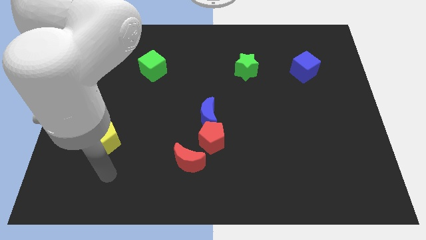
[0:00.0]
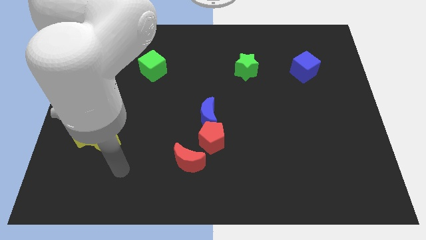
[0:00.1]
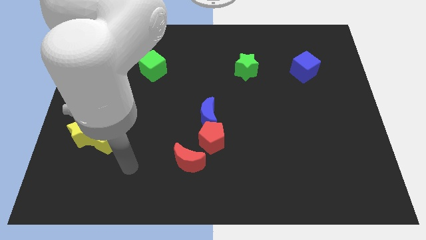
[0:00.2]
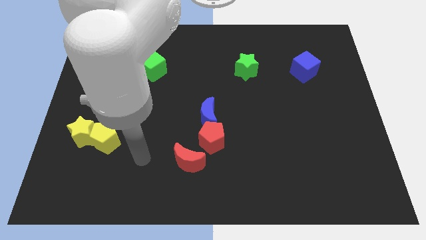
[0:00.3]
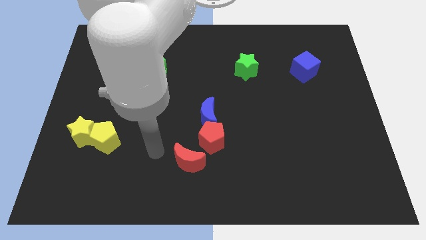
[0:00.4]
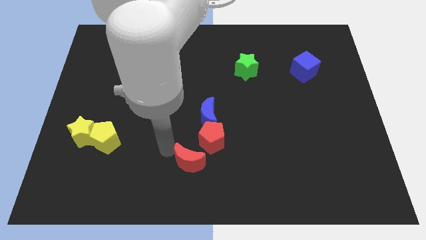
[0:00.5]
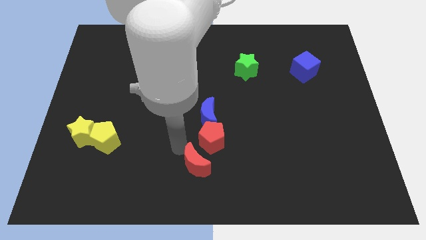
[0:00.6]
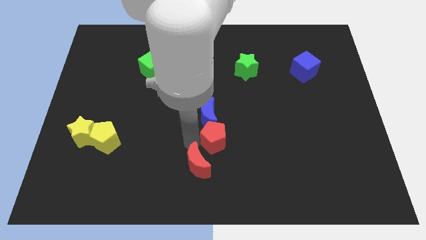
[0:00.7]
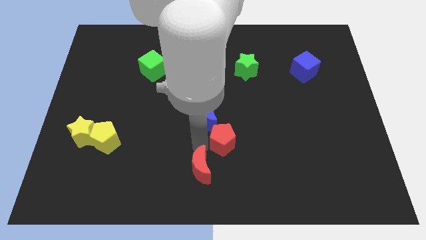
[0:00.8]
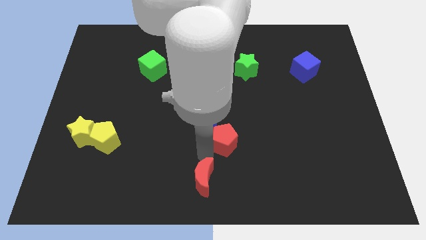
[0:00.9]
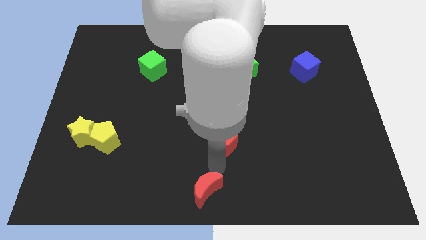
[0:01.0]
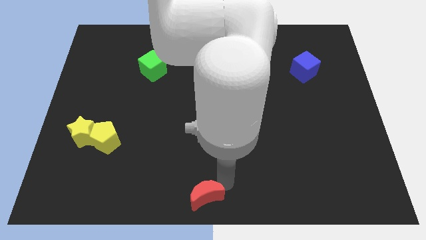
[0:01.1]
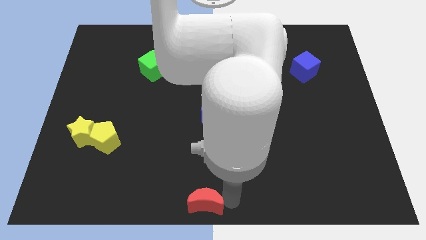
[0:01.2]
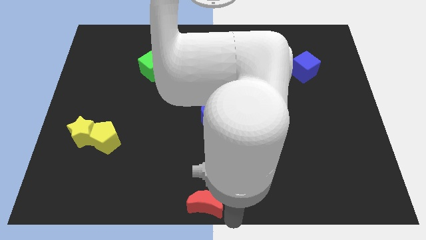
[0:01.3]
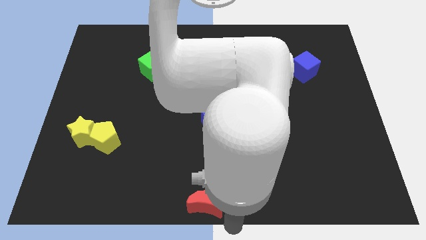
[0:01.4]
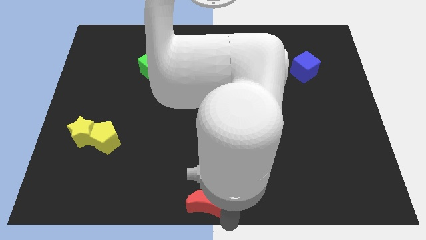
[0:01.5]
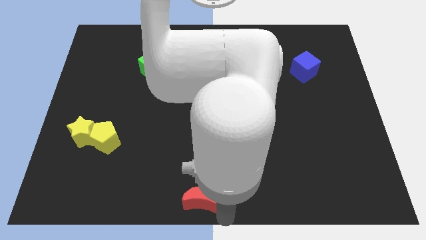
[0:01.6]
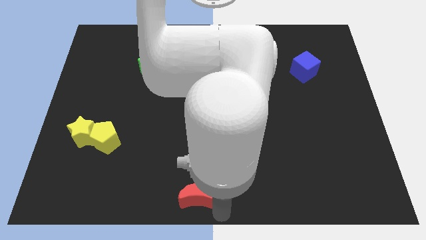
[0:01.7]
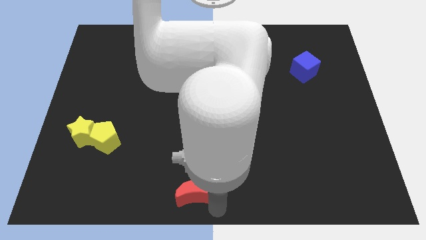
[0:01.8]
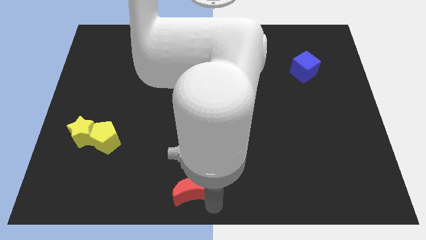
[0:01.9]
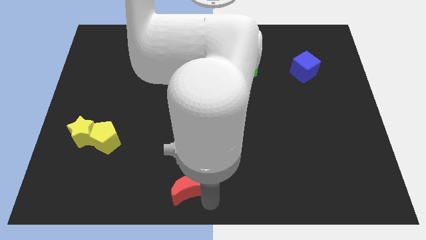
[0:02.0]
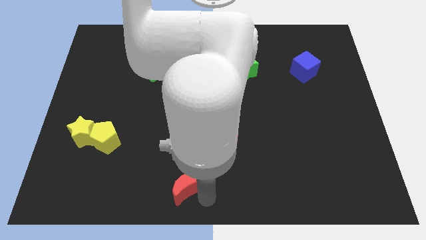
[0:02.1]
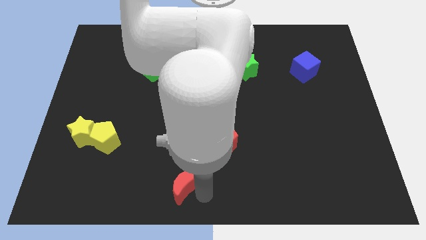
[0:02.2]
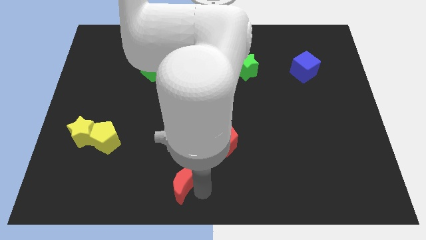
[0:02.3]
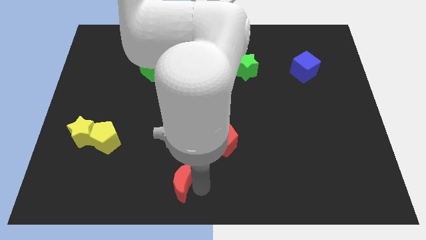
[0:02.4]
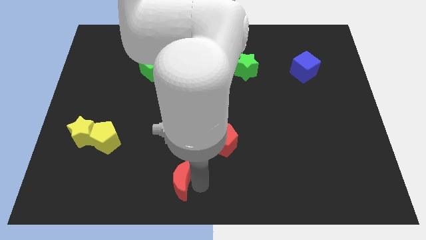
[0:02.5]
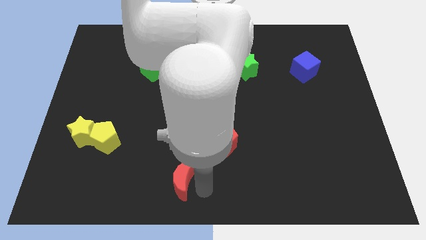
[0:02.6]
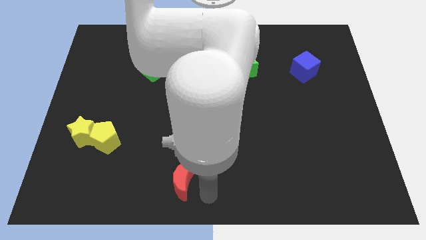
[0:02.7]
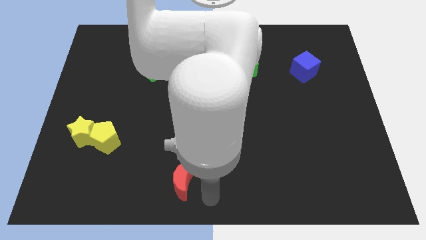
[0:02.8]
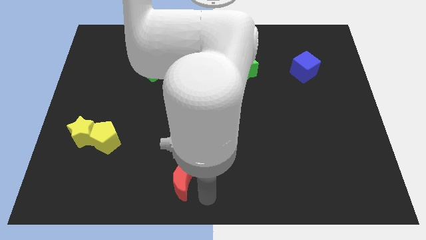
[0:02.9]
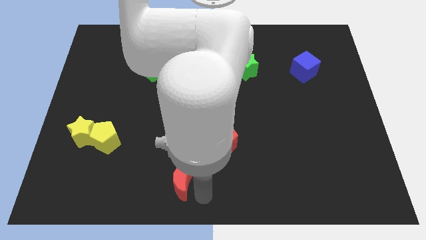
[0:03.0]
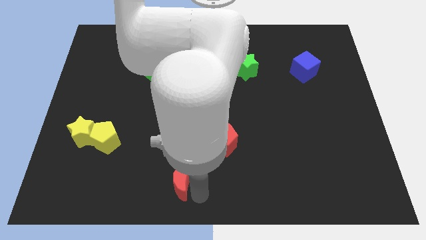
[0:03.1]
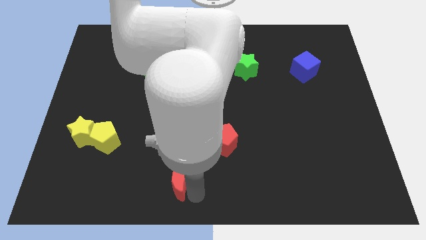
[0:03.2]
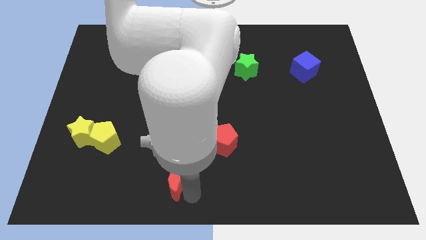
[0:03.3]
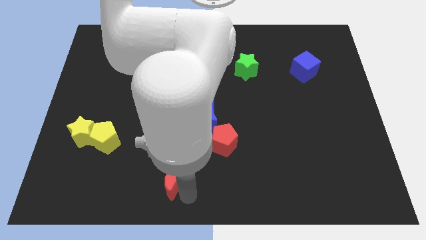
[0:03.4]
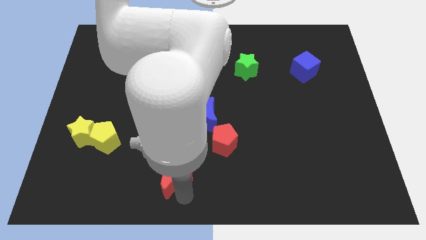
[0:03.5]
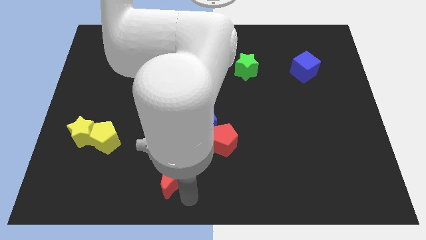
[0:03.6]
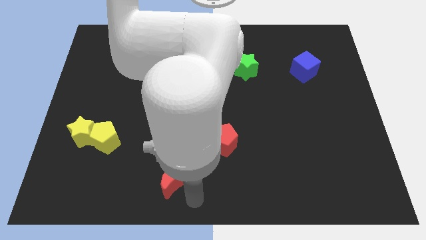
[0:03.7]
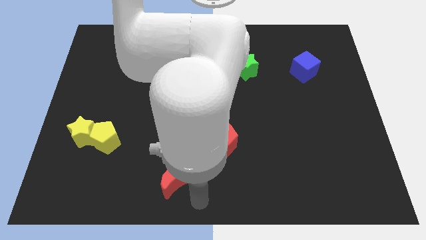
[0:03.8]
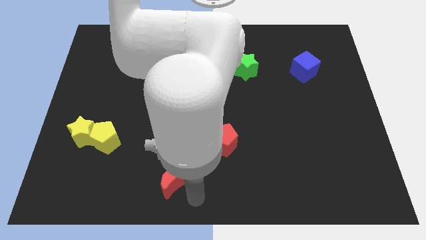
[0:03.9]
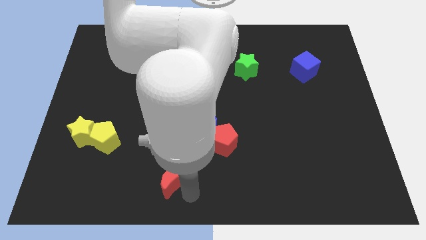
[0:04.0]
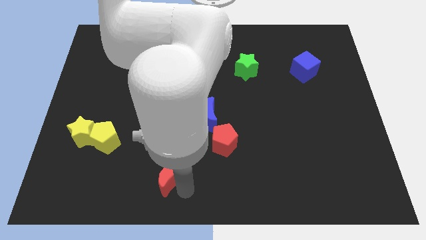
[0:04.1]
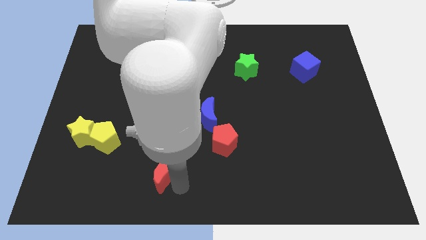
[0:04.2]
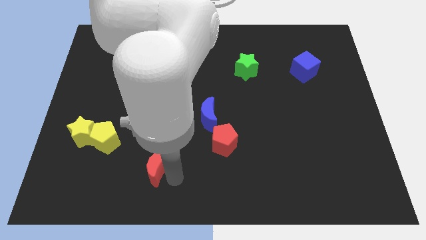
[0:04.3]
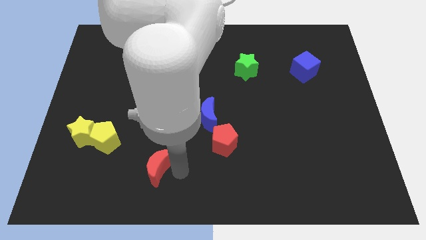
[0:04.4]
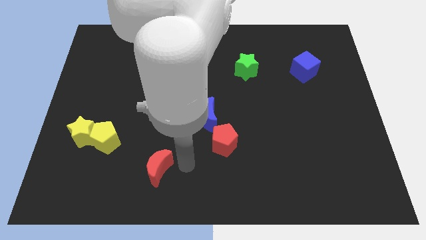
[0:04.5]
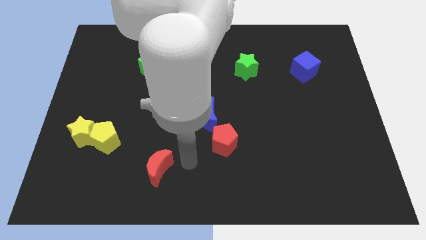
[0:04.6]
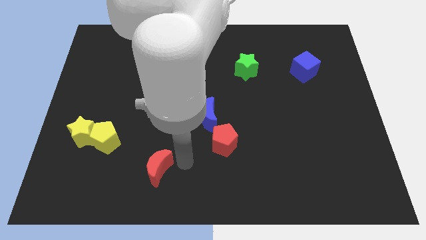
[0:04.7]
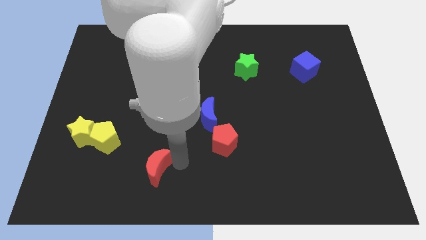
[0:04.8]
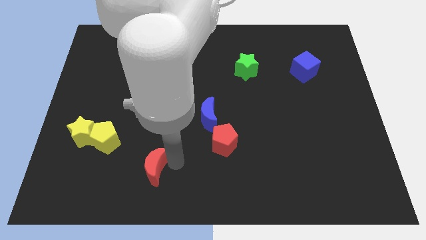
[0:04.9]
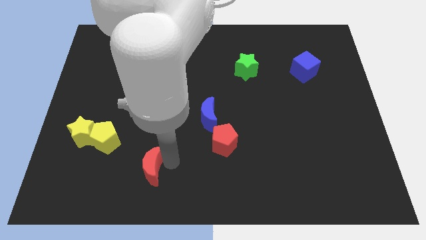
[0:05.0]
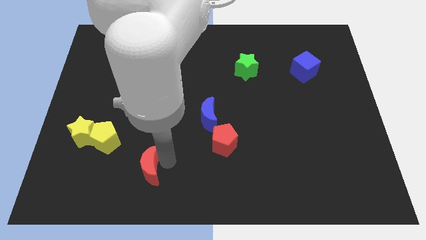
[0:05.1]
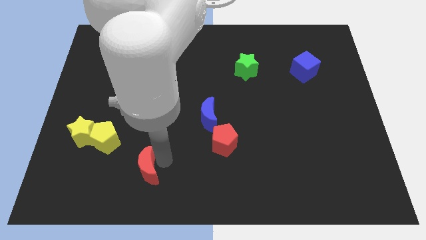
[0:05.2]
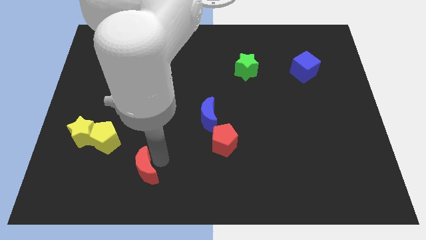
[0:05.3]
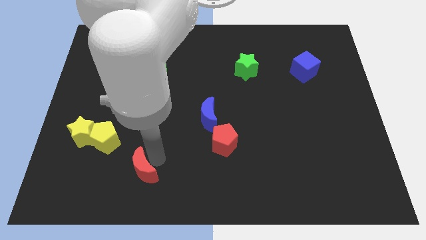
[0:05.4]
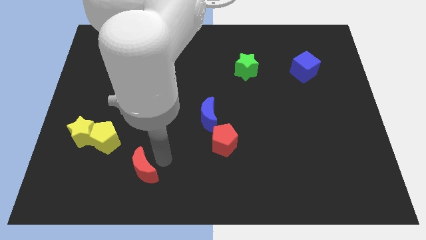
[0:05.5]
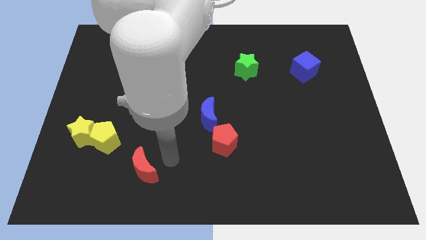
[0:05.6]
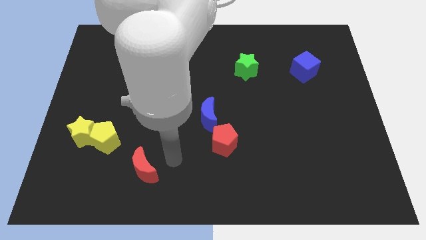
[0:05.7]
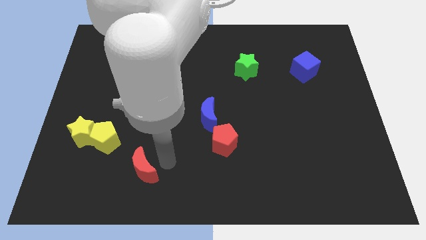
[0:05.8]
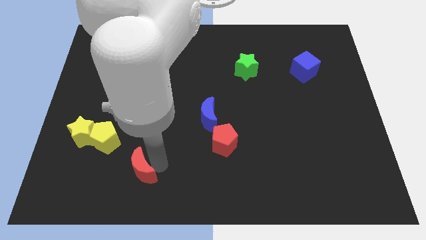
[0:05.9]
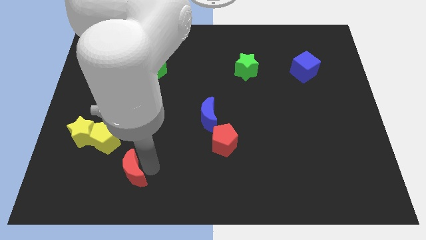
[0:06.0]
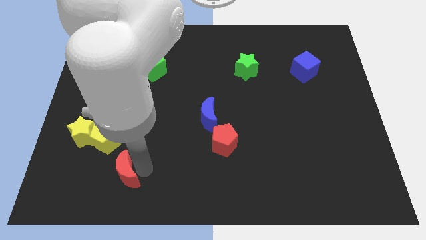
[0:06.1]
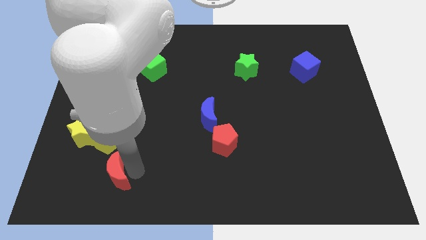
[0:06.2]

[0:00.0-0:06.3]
put the red moon to the bottom of the yellow pentagon

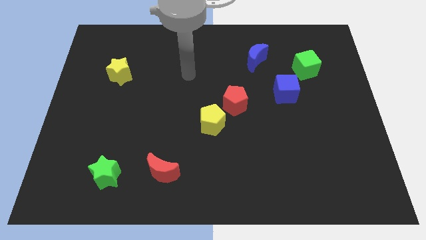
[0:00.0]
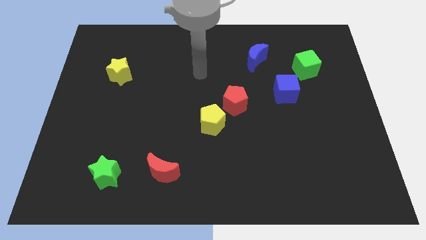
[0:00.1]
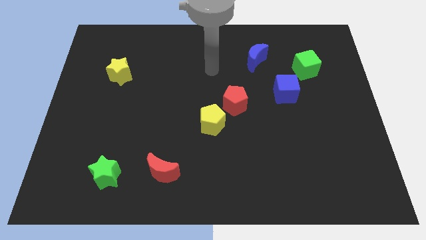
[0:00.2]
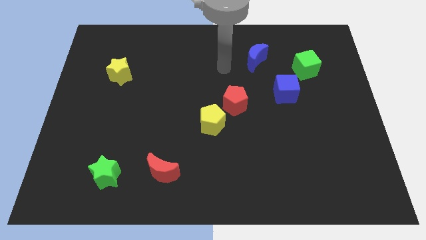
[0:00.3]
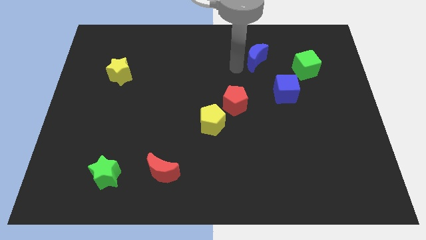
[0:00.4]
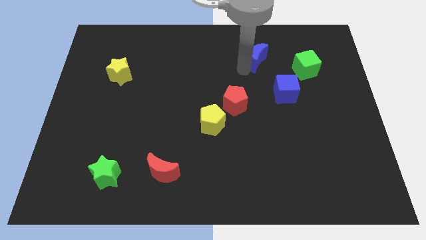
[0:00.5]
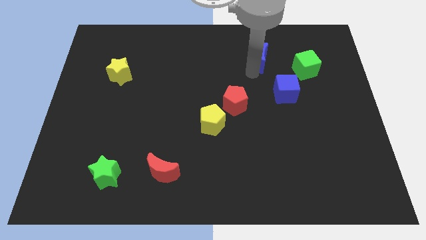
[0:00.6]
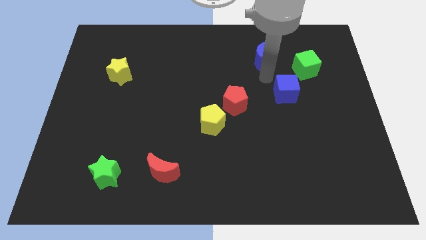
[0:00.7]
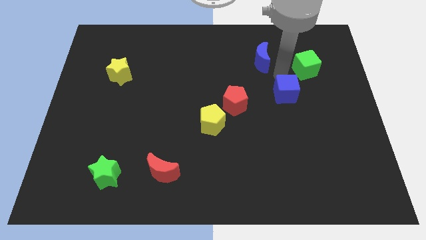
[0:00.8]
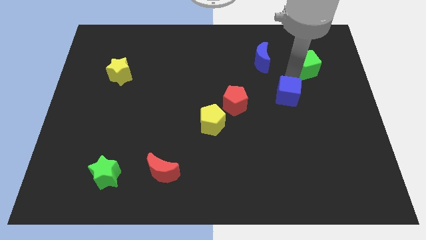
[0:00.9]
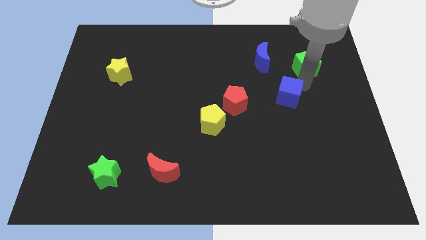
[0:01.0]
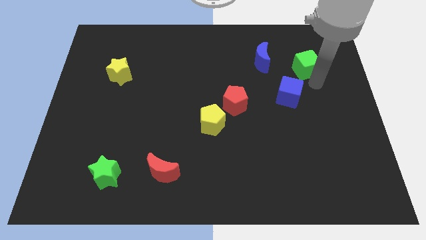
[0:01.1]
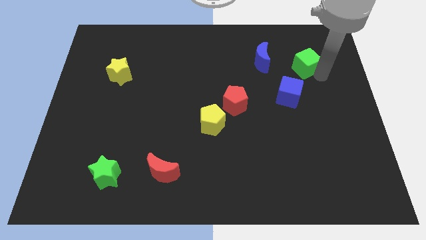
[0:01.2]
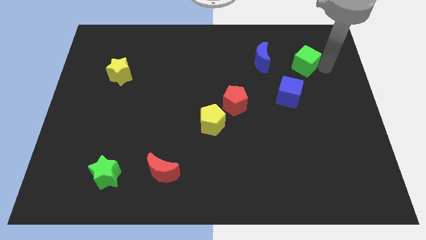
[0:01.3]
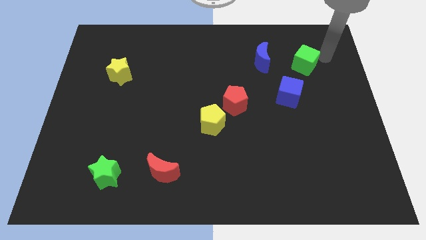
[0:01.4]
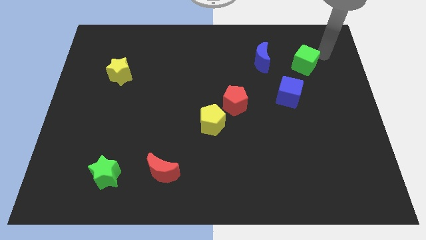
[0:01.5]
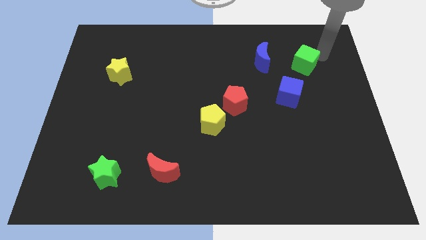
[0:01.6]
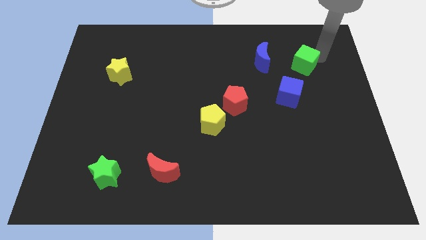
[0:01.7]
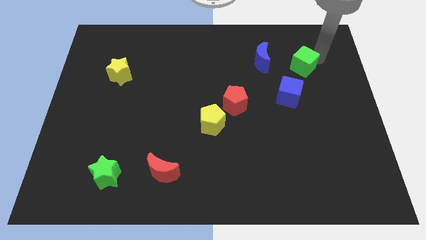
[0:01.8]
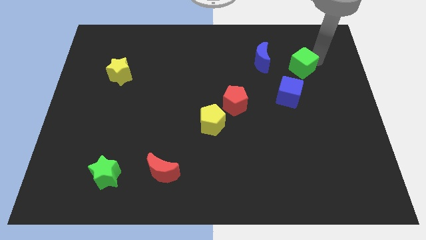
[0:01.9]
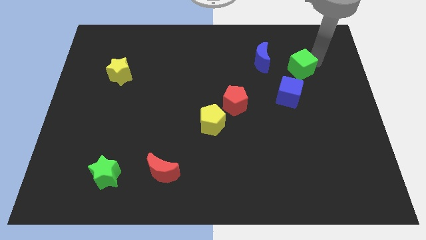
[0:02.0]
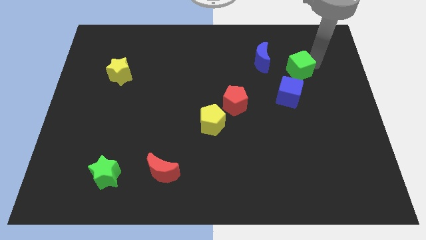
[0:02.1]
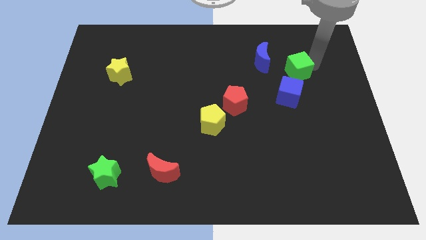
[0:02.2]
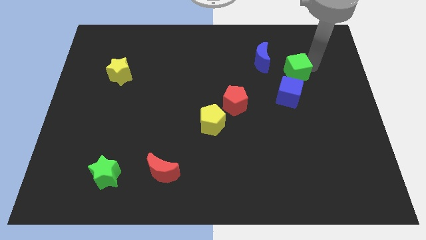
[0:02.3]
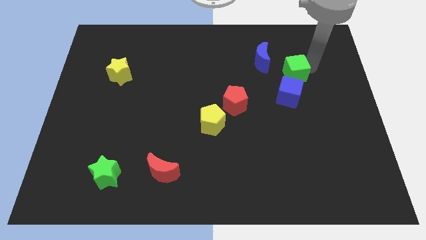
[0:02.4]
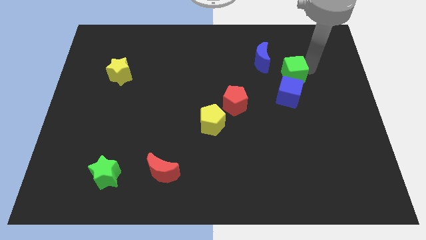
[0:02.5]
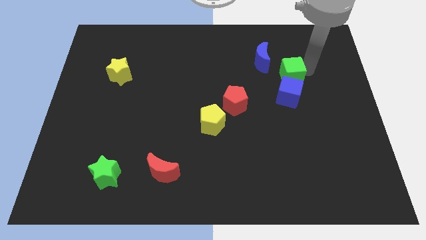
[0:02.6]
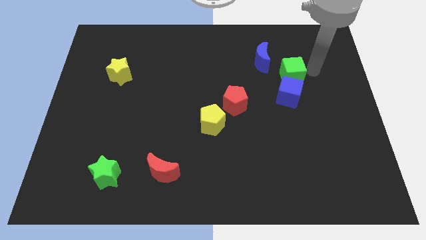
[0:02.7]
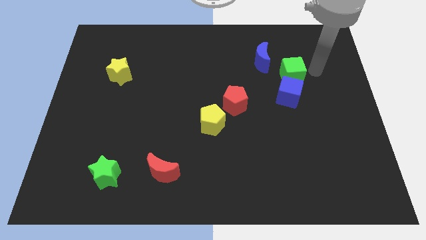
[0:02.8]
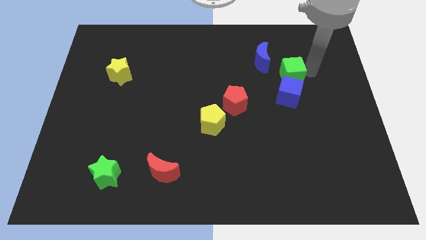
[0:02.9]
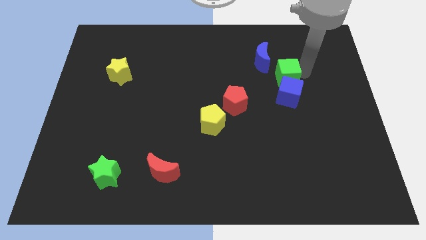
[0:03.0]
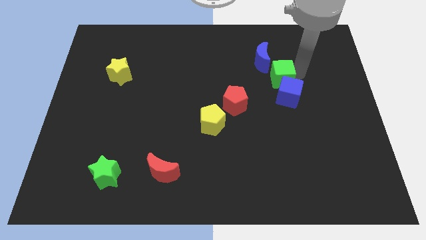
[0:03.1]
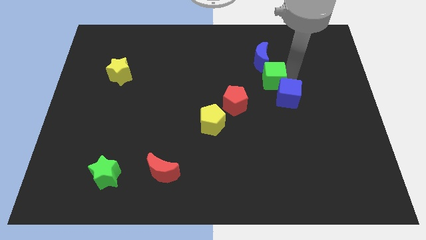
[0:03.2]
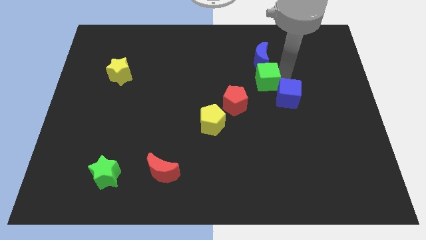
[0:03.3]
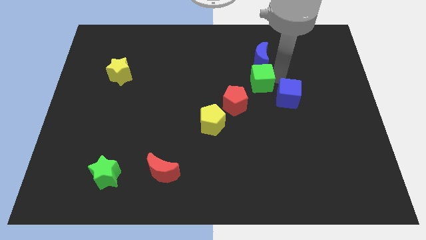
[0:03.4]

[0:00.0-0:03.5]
slide the green cube left of the blue cube
